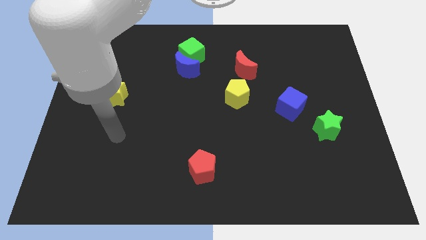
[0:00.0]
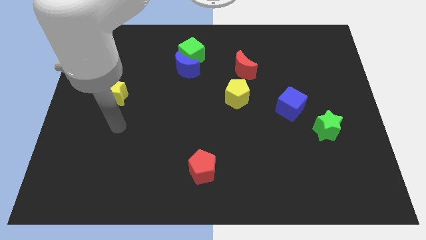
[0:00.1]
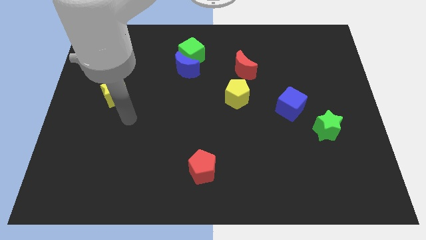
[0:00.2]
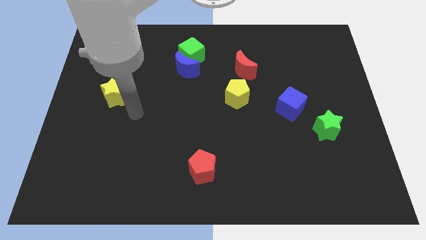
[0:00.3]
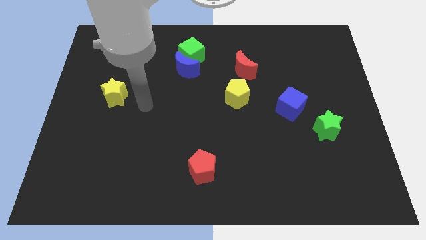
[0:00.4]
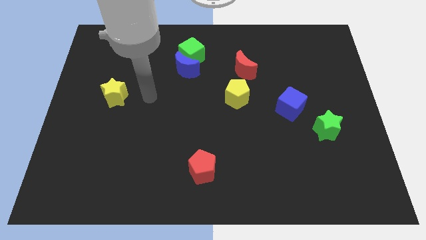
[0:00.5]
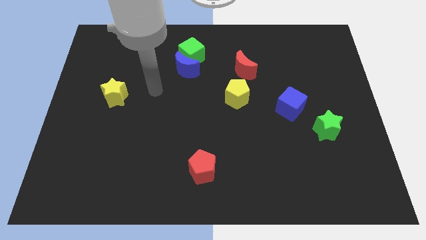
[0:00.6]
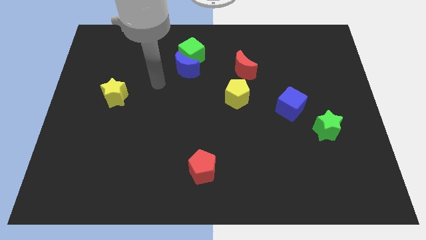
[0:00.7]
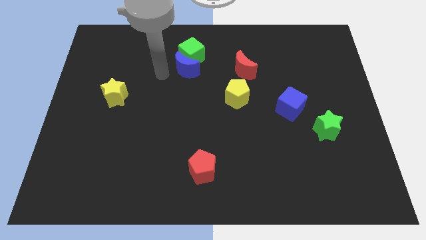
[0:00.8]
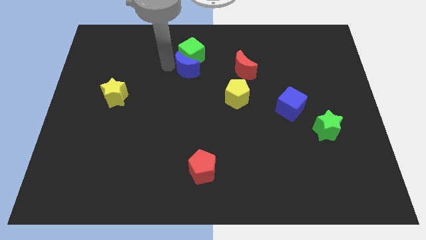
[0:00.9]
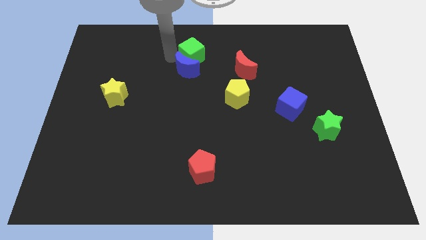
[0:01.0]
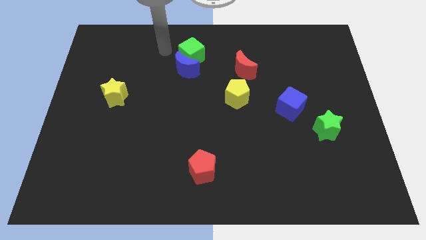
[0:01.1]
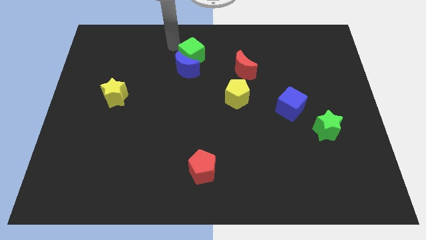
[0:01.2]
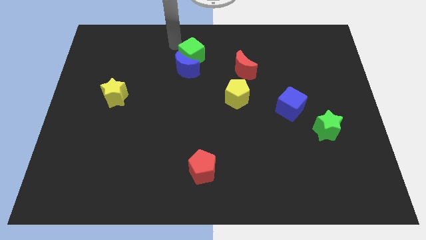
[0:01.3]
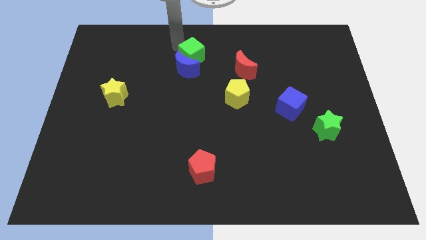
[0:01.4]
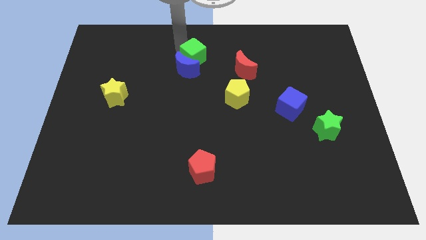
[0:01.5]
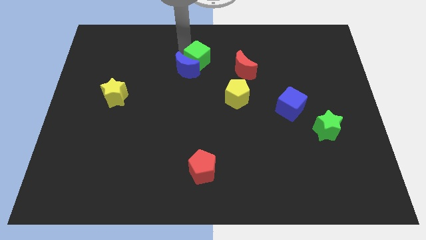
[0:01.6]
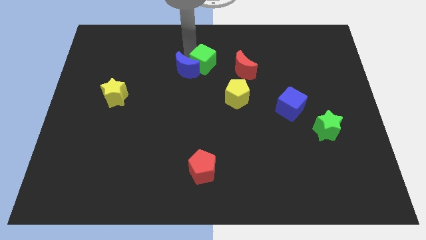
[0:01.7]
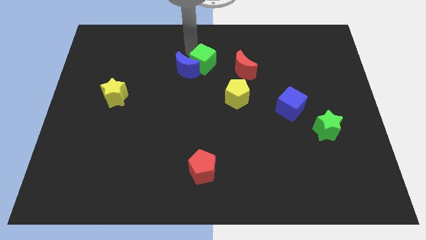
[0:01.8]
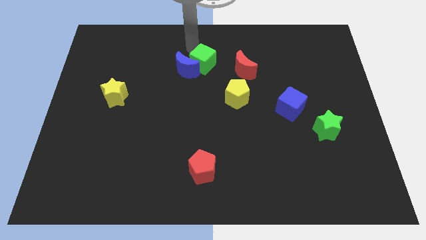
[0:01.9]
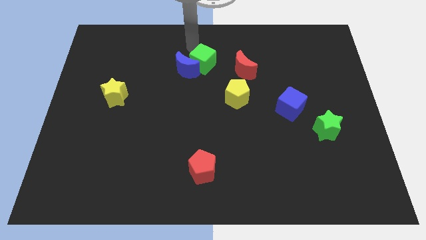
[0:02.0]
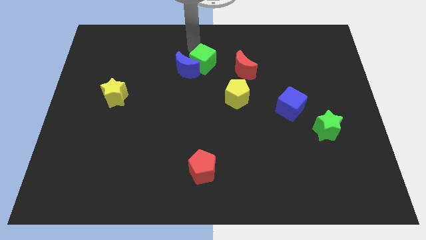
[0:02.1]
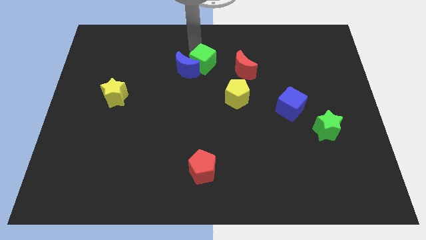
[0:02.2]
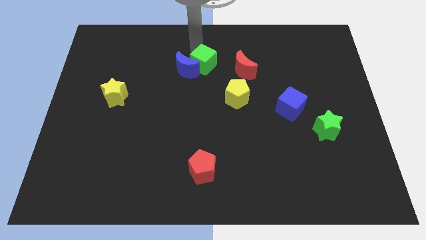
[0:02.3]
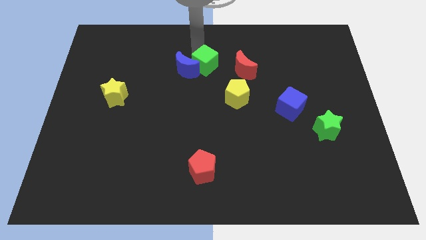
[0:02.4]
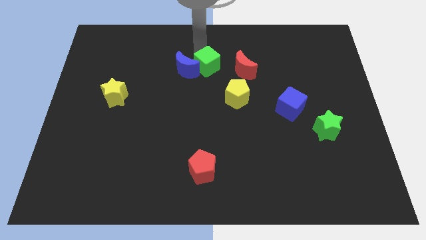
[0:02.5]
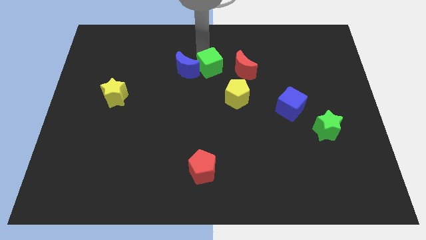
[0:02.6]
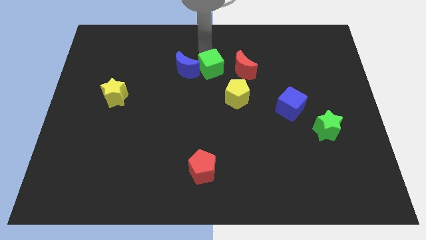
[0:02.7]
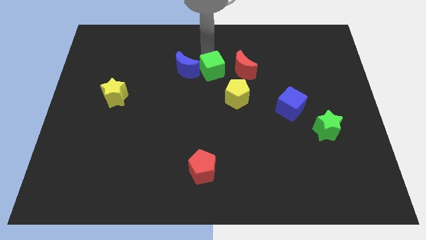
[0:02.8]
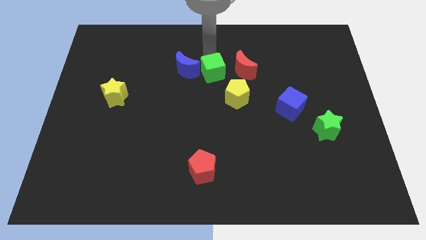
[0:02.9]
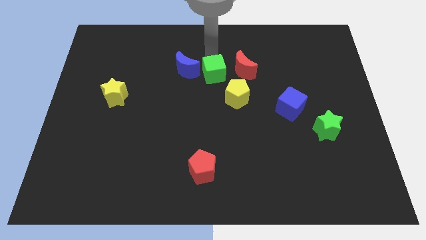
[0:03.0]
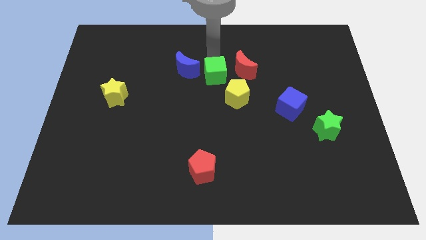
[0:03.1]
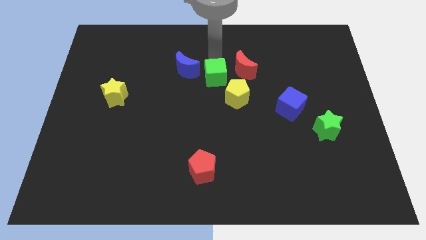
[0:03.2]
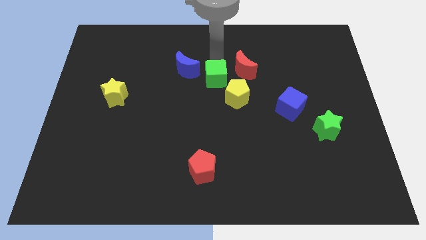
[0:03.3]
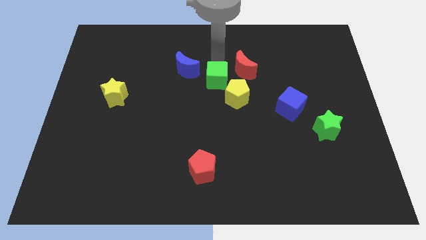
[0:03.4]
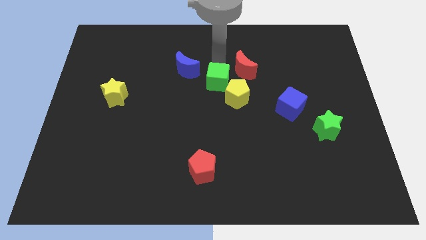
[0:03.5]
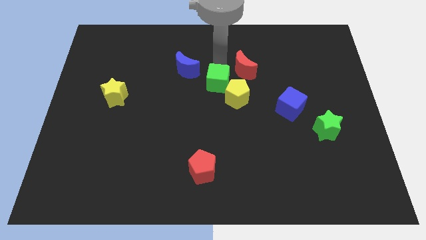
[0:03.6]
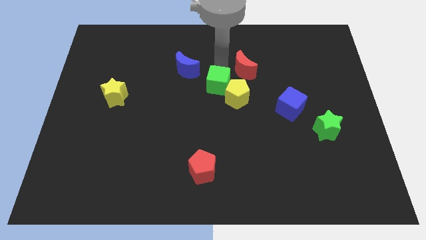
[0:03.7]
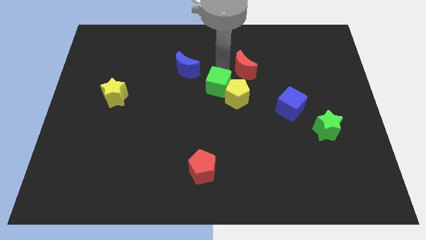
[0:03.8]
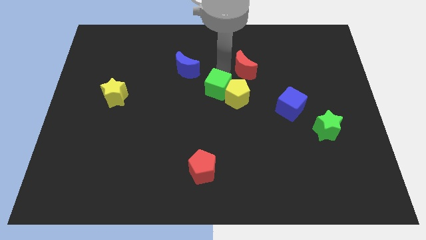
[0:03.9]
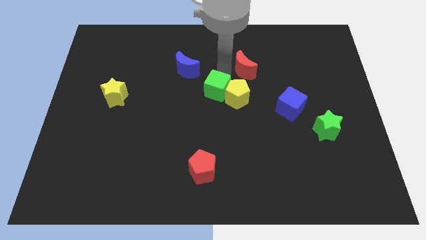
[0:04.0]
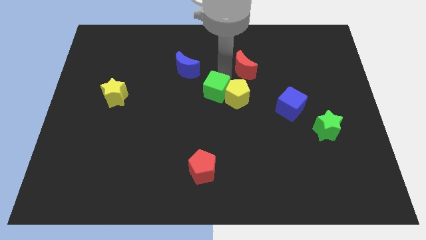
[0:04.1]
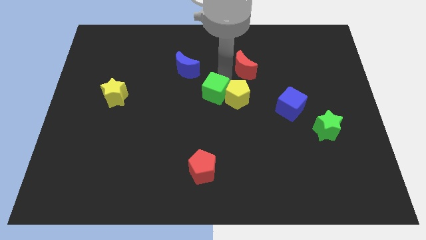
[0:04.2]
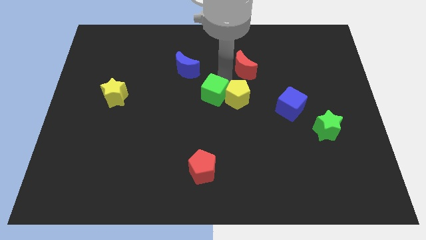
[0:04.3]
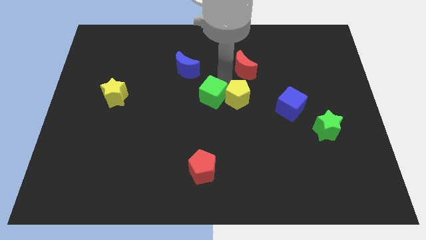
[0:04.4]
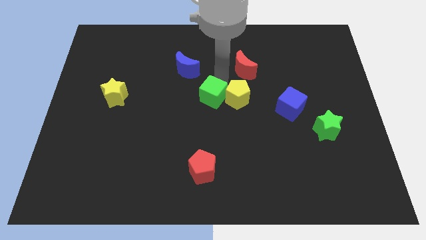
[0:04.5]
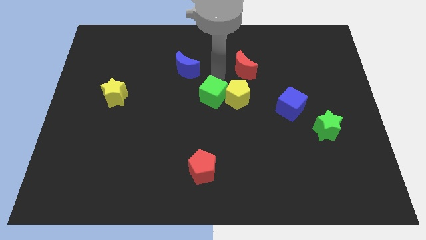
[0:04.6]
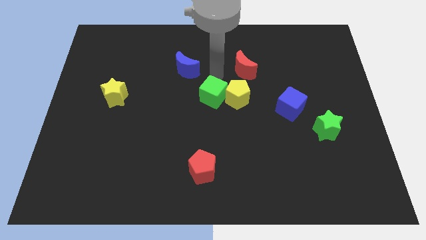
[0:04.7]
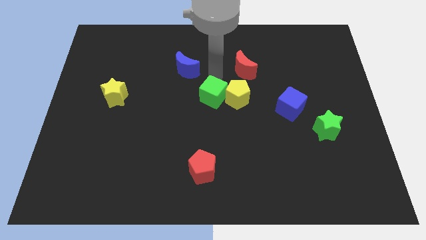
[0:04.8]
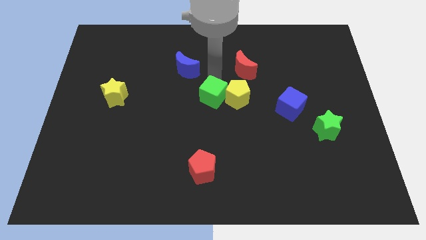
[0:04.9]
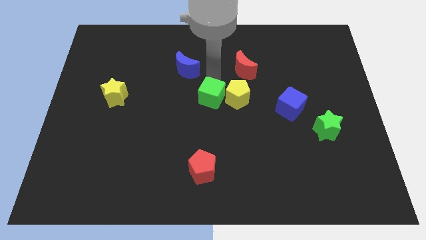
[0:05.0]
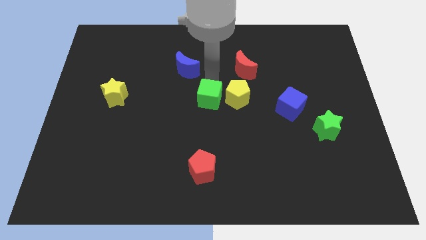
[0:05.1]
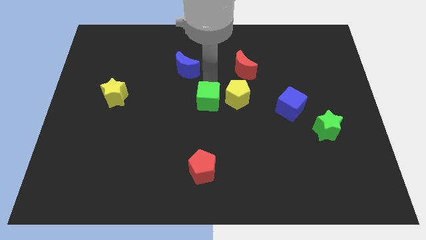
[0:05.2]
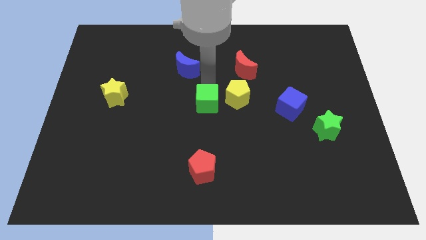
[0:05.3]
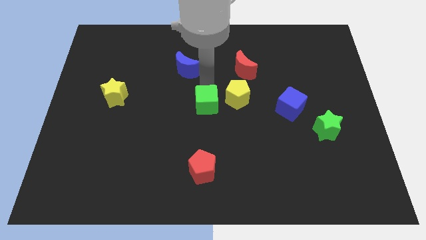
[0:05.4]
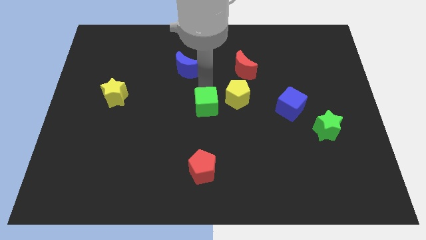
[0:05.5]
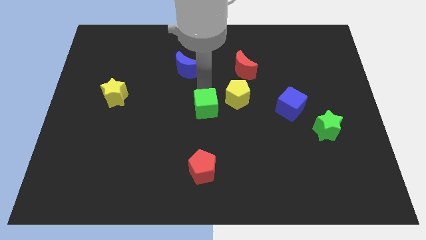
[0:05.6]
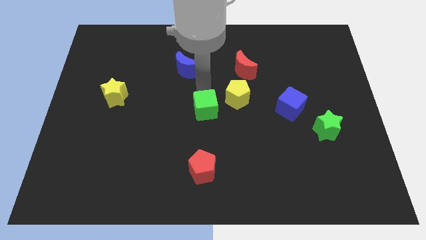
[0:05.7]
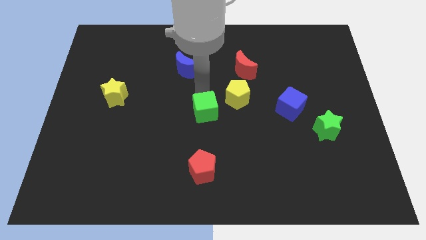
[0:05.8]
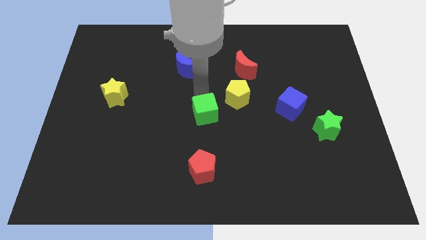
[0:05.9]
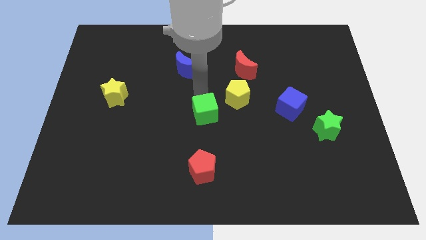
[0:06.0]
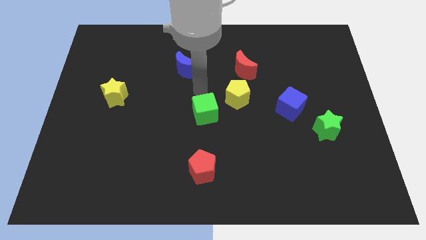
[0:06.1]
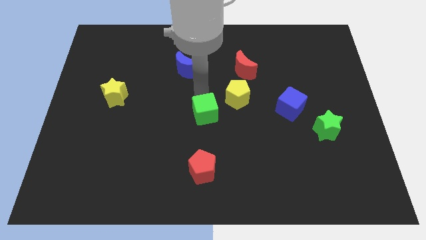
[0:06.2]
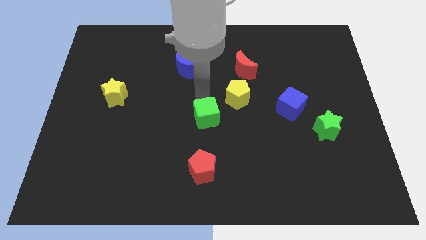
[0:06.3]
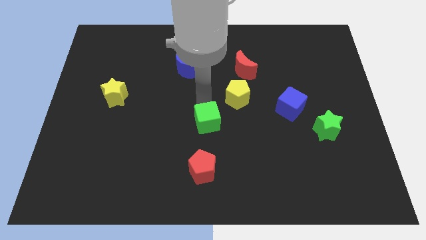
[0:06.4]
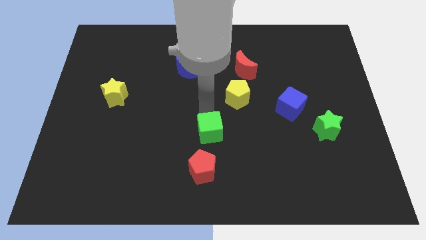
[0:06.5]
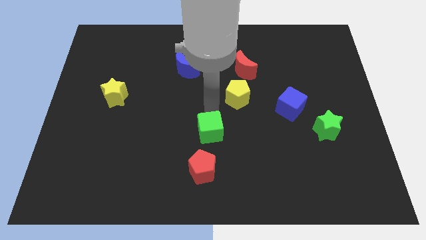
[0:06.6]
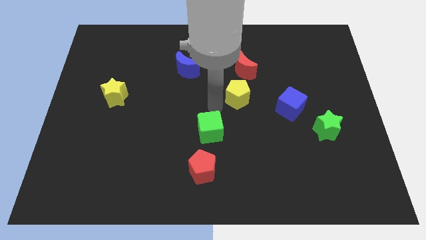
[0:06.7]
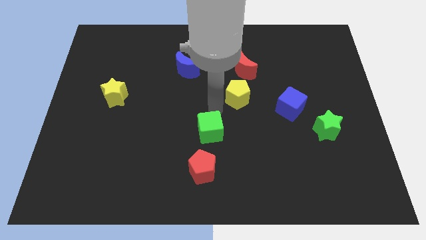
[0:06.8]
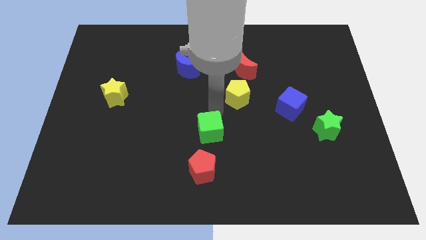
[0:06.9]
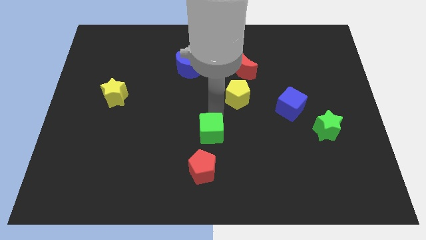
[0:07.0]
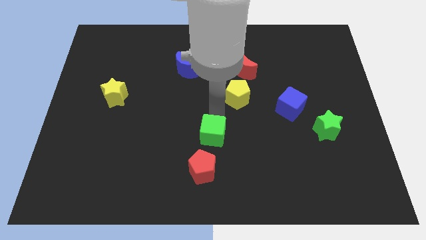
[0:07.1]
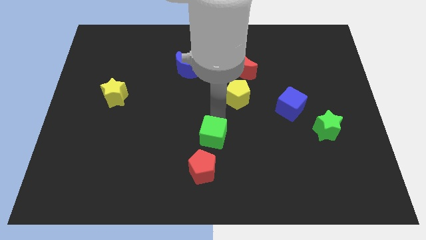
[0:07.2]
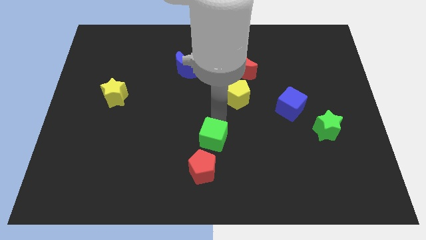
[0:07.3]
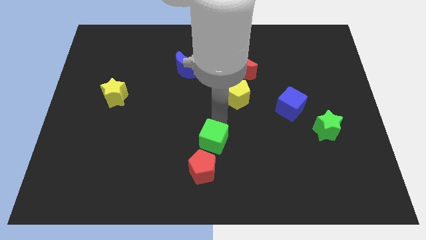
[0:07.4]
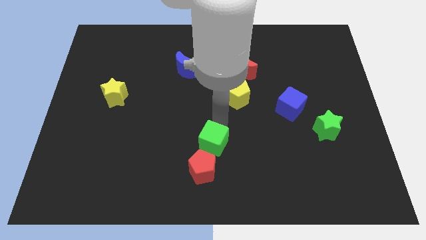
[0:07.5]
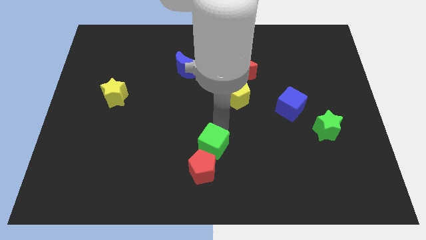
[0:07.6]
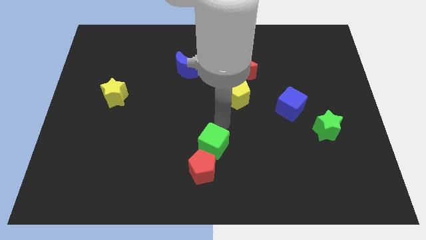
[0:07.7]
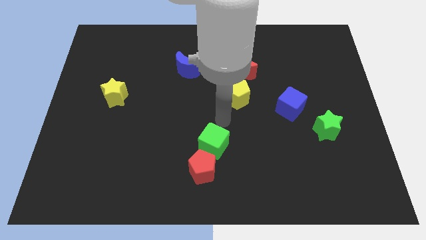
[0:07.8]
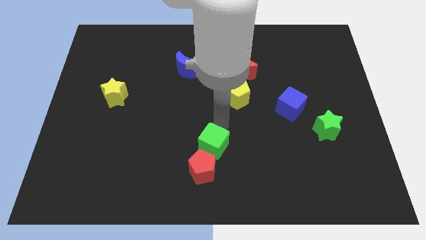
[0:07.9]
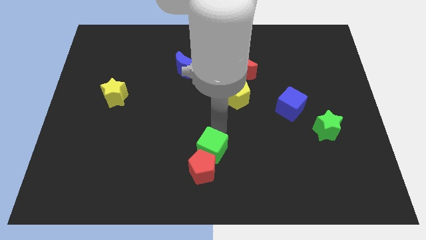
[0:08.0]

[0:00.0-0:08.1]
put the green cube next to the red pentagon
